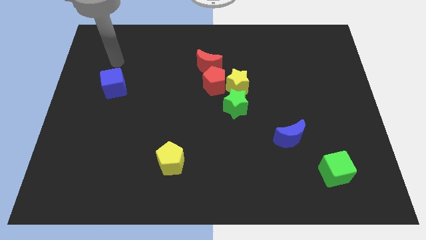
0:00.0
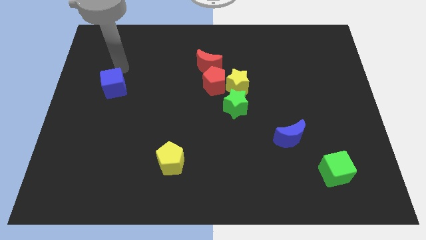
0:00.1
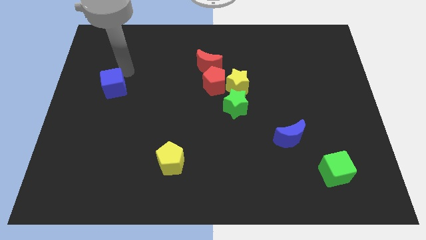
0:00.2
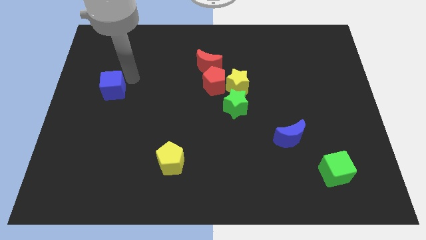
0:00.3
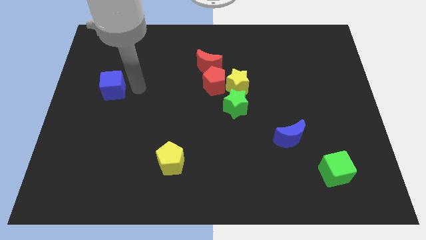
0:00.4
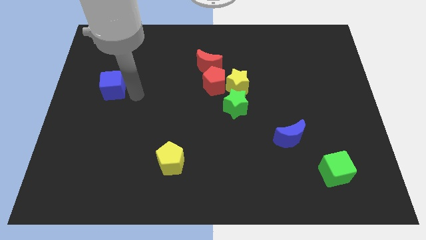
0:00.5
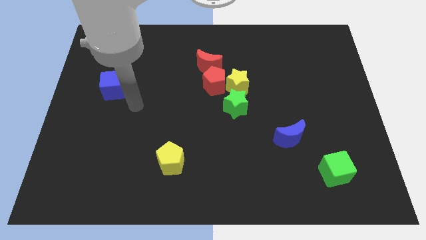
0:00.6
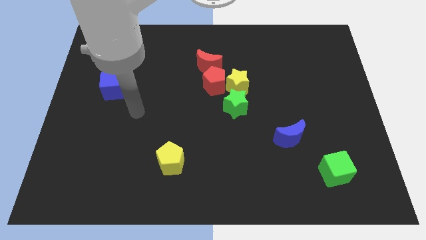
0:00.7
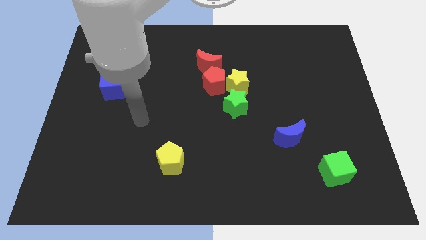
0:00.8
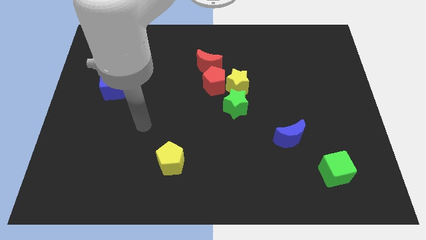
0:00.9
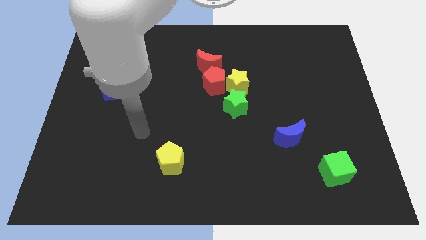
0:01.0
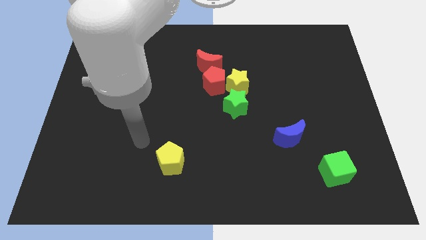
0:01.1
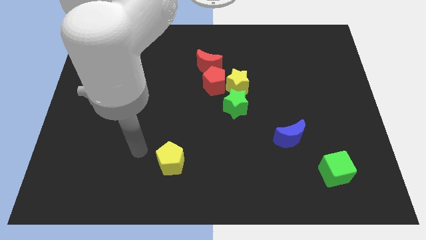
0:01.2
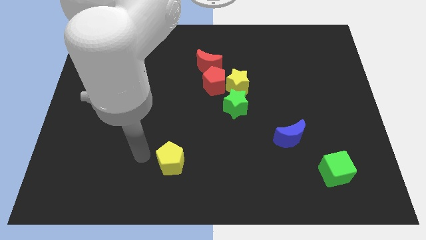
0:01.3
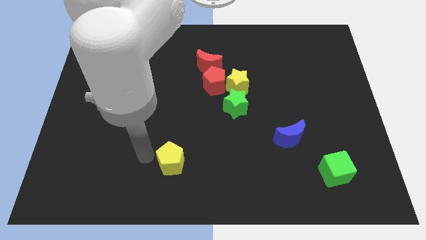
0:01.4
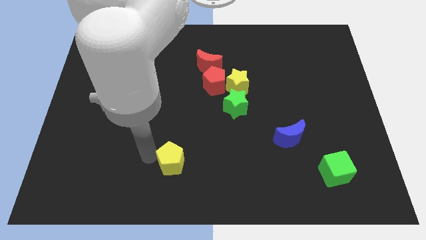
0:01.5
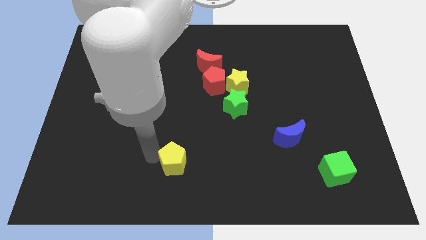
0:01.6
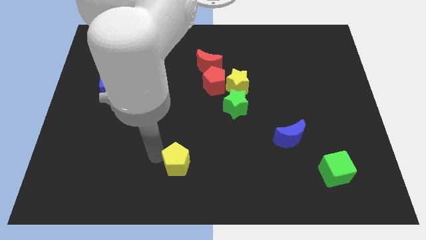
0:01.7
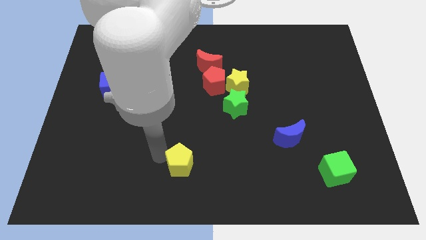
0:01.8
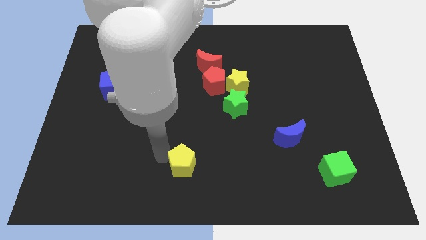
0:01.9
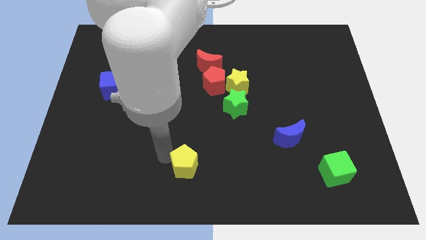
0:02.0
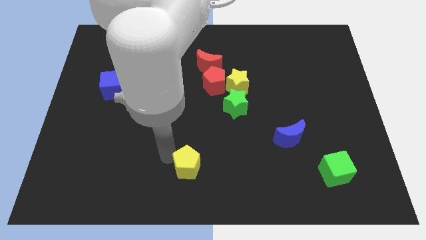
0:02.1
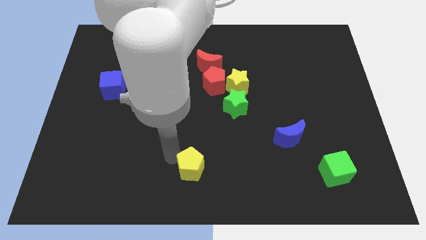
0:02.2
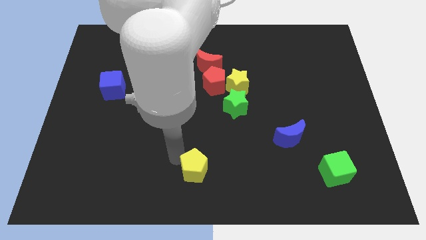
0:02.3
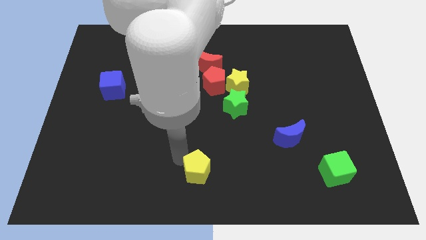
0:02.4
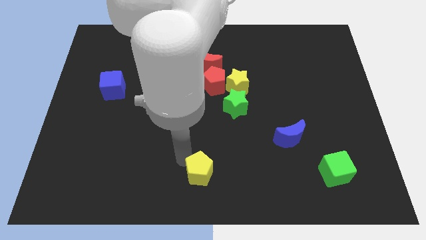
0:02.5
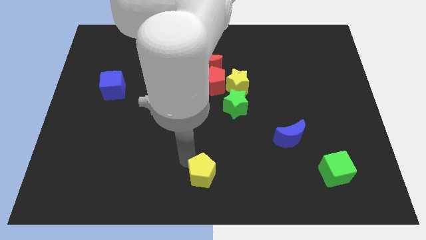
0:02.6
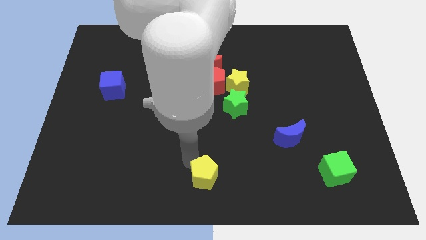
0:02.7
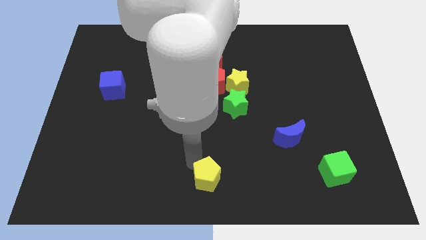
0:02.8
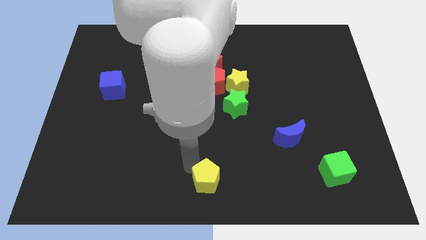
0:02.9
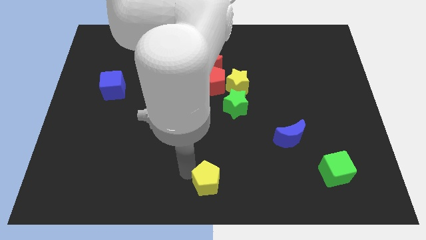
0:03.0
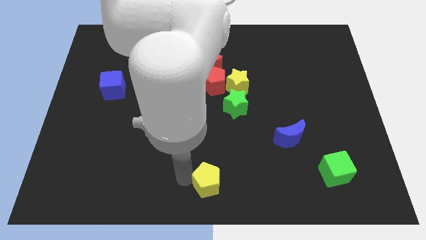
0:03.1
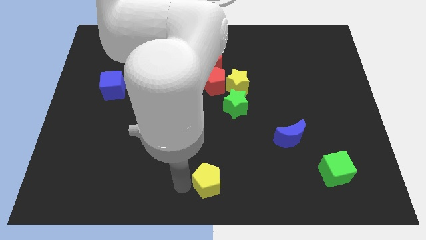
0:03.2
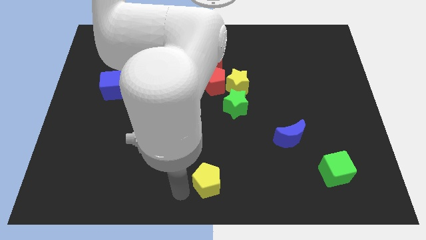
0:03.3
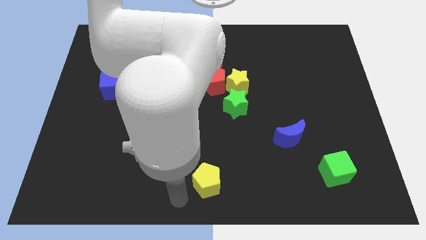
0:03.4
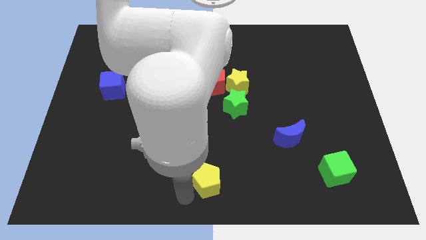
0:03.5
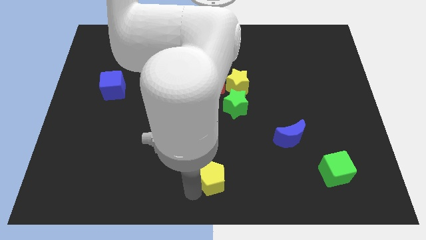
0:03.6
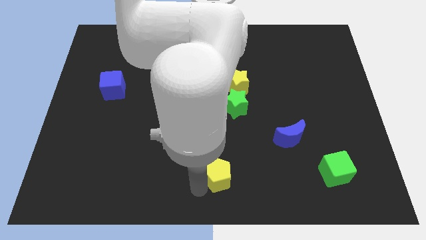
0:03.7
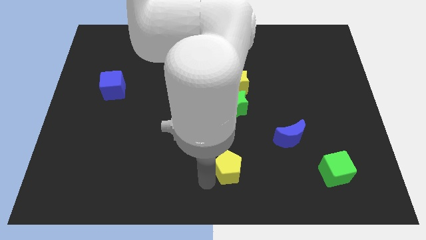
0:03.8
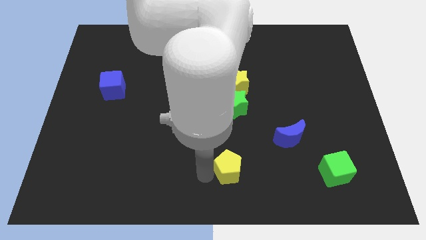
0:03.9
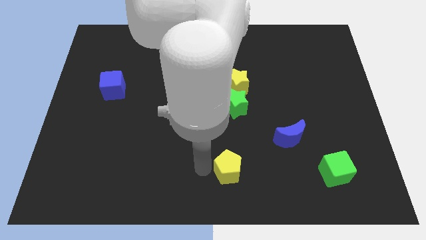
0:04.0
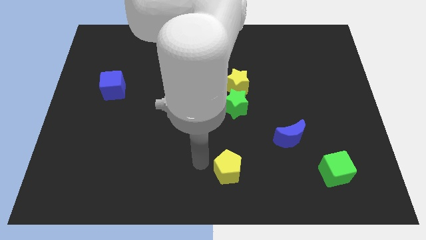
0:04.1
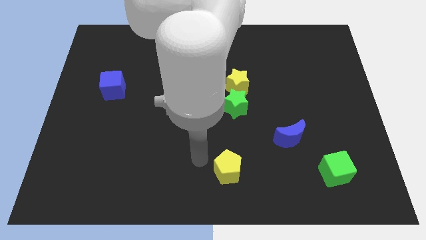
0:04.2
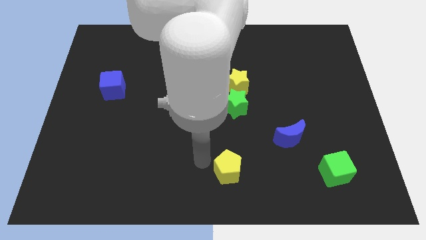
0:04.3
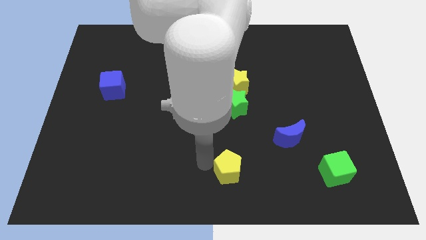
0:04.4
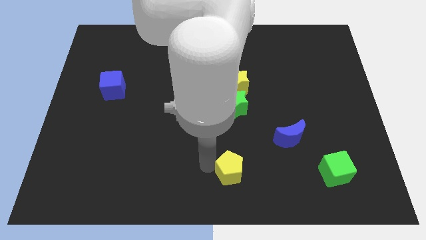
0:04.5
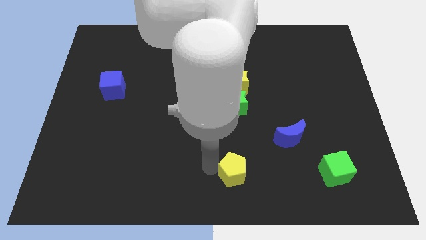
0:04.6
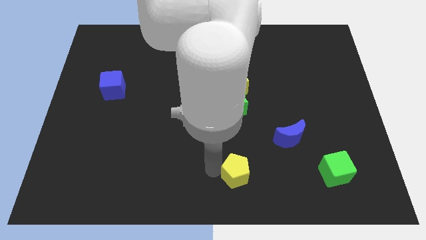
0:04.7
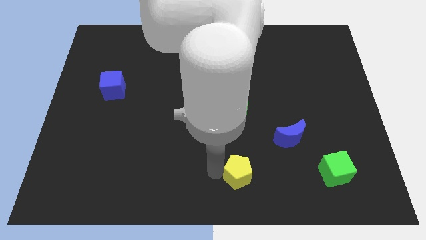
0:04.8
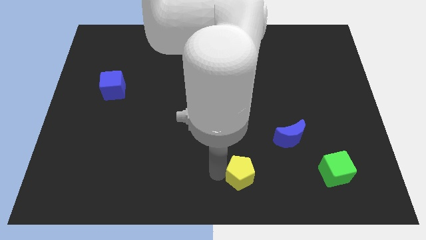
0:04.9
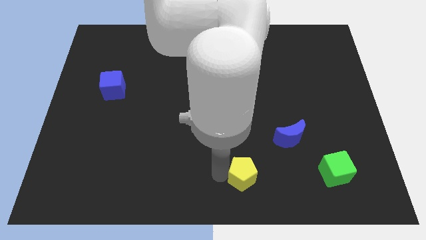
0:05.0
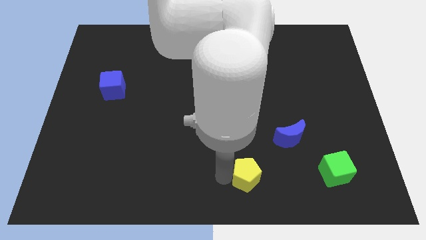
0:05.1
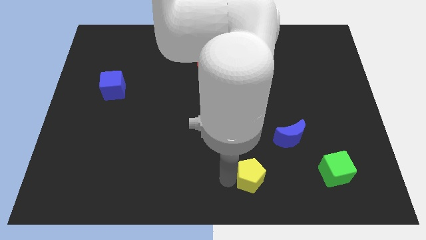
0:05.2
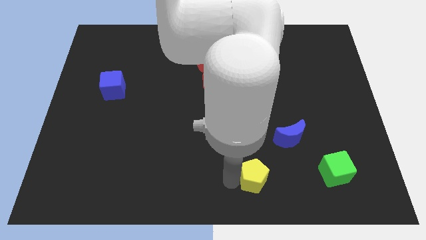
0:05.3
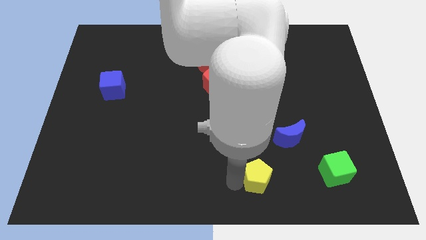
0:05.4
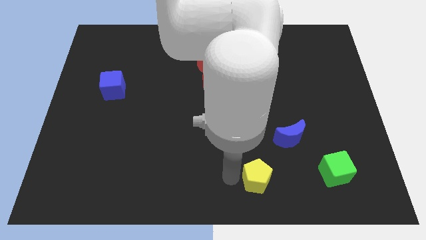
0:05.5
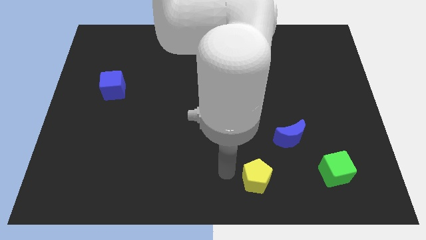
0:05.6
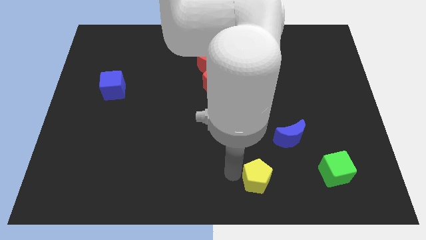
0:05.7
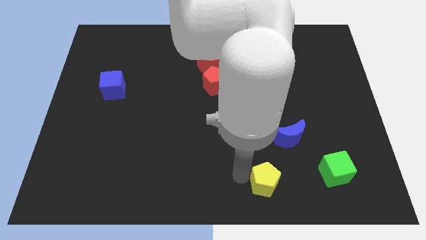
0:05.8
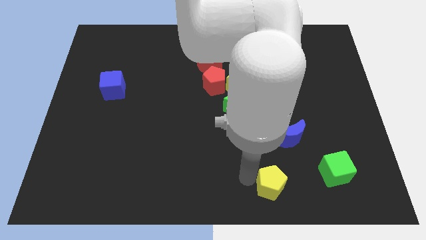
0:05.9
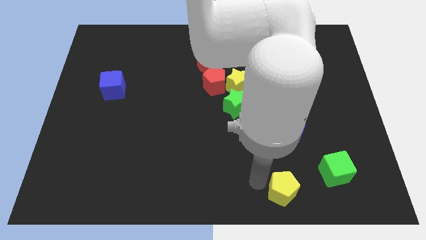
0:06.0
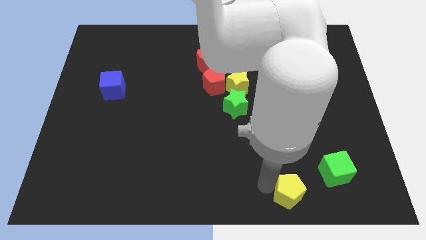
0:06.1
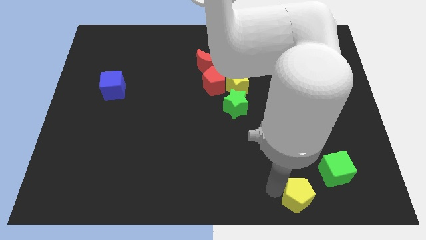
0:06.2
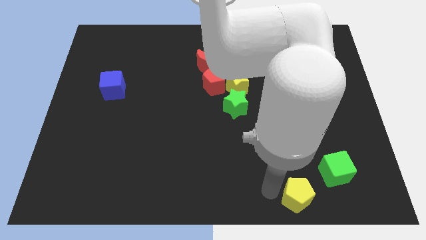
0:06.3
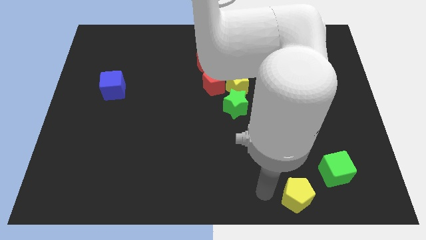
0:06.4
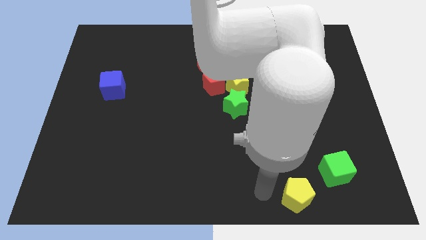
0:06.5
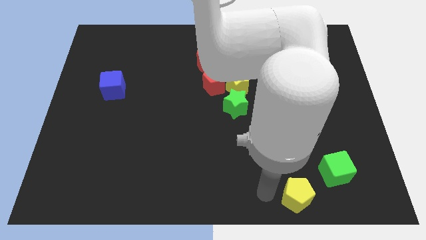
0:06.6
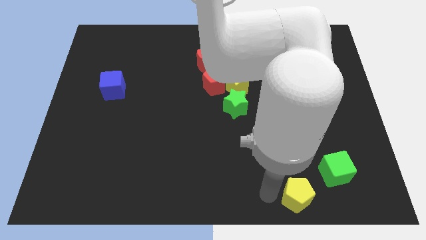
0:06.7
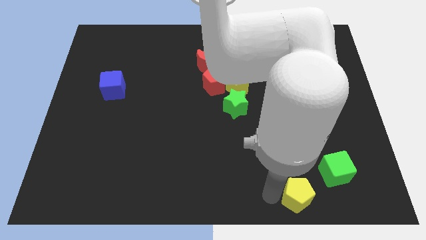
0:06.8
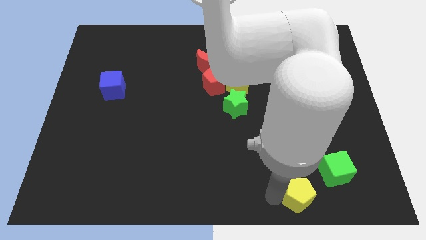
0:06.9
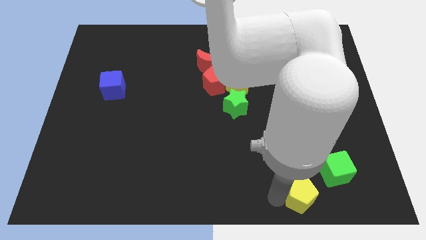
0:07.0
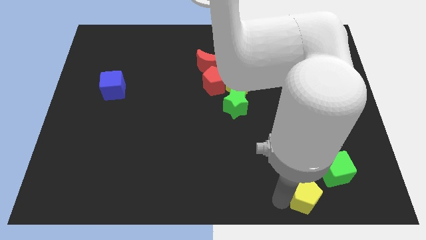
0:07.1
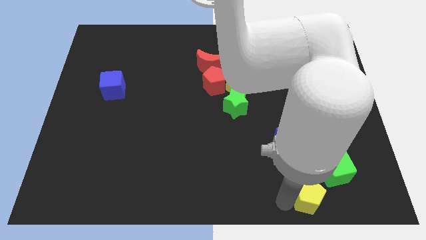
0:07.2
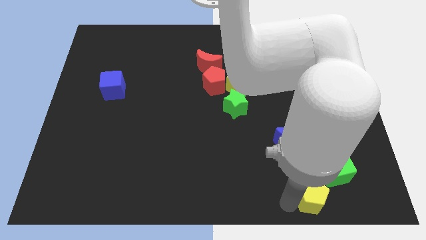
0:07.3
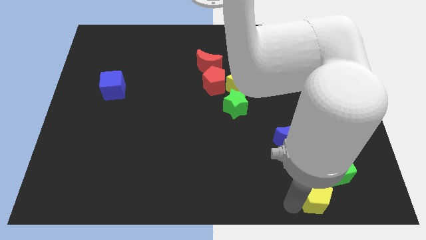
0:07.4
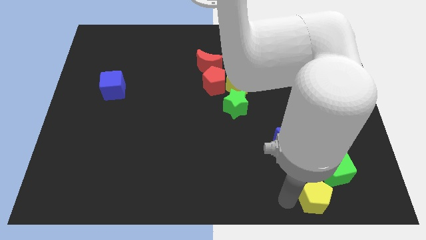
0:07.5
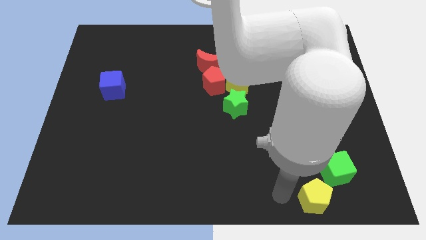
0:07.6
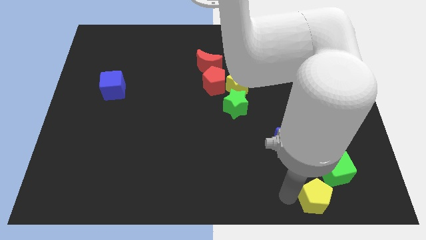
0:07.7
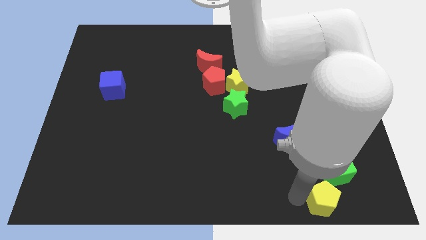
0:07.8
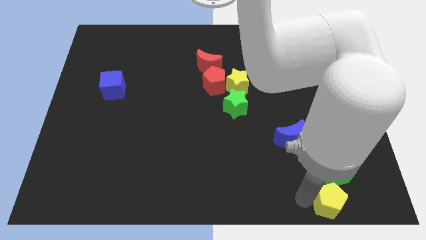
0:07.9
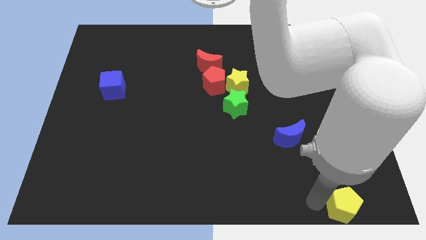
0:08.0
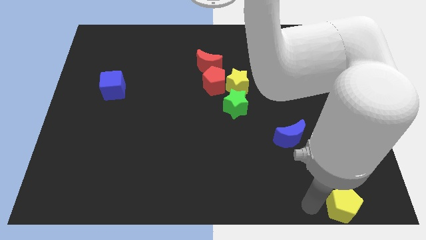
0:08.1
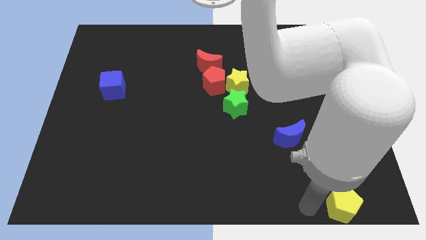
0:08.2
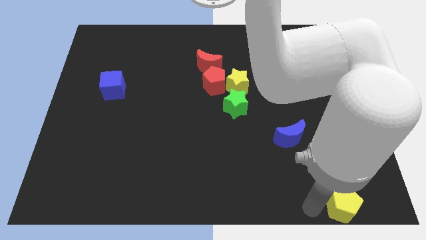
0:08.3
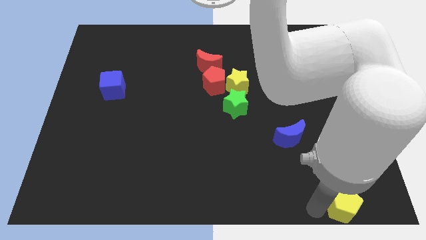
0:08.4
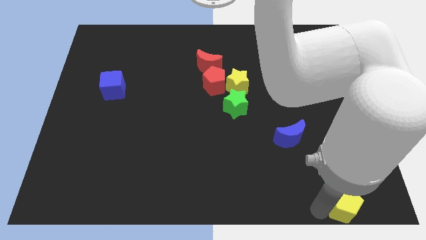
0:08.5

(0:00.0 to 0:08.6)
slide the yellow pentagon to the bottom right of the board
